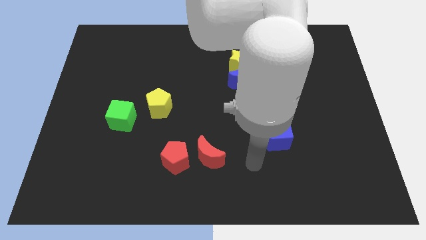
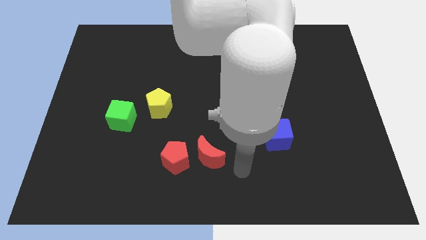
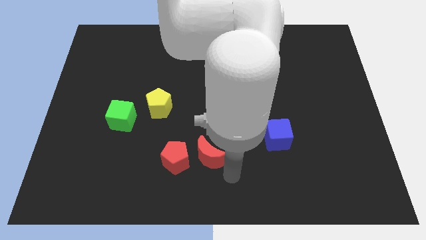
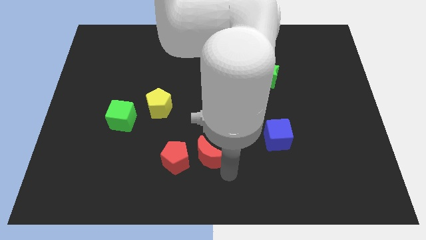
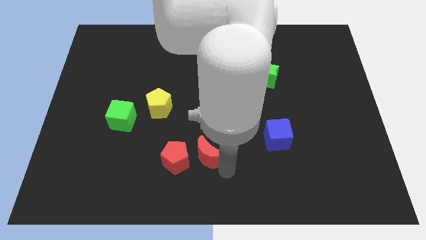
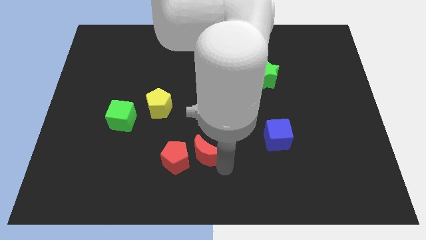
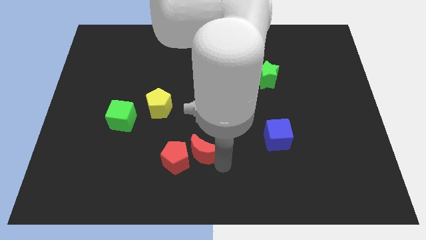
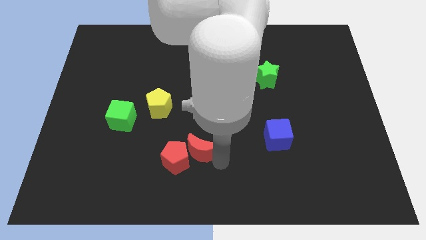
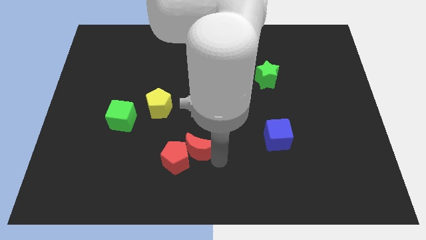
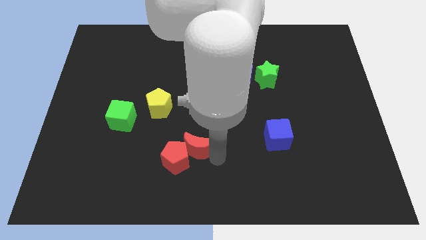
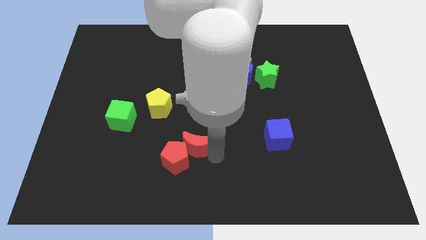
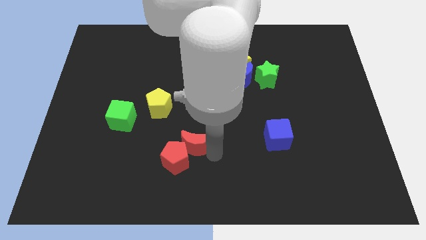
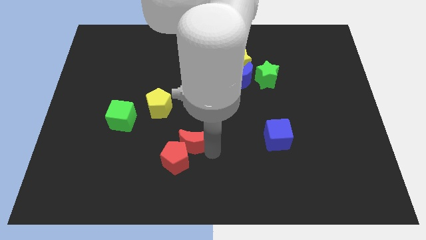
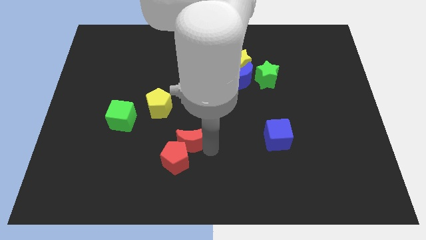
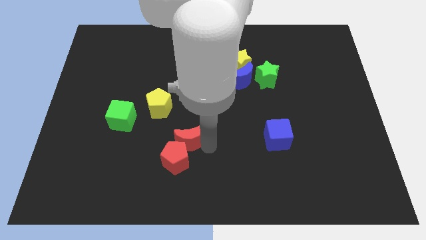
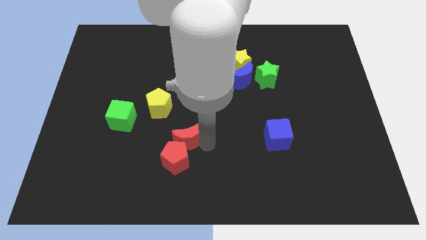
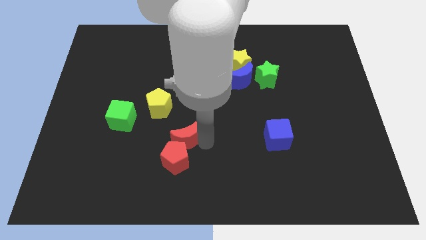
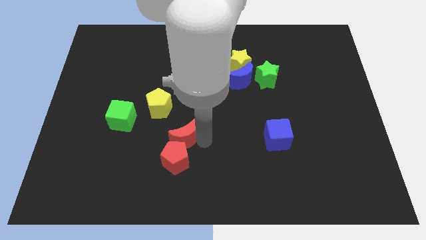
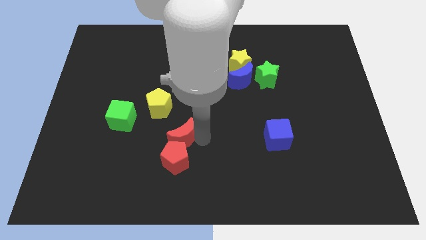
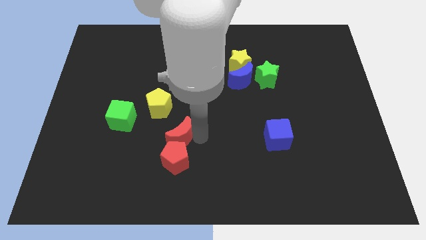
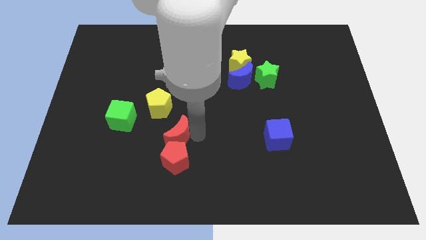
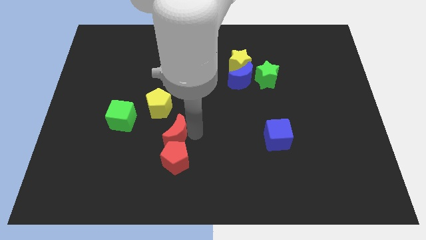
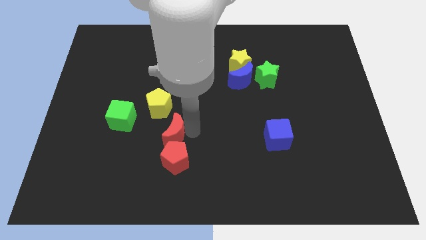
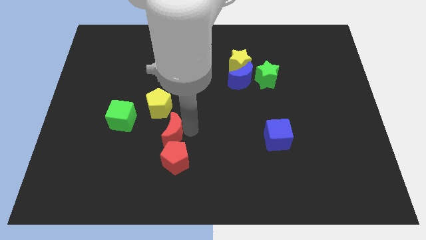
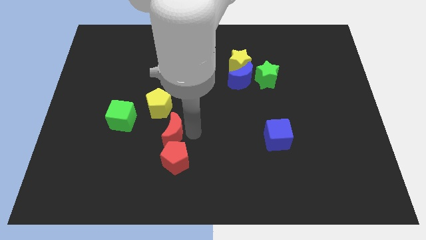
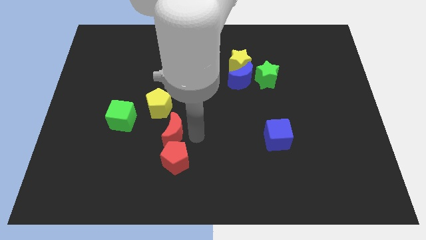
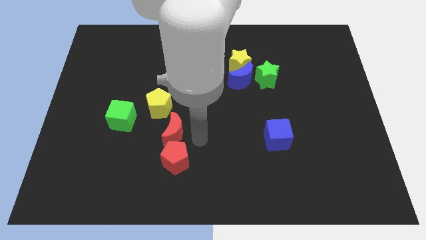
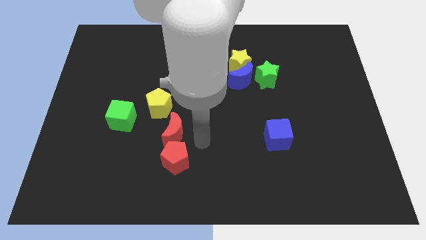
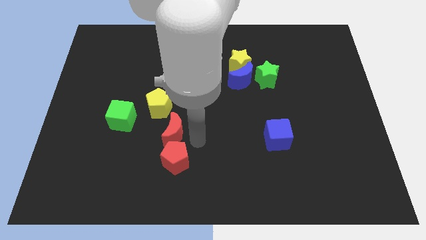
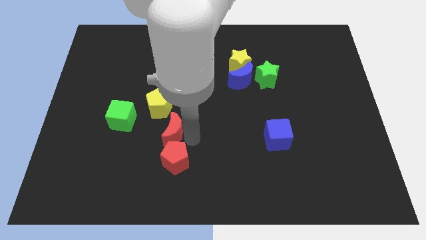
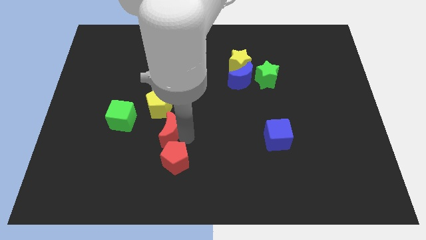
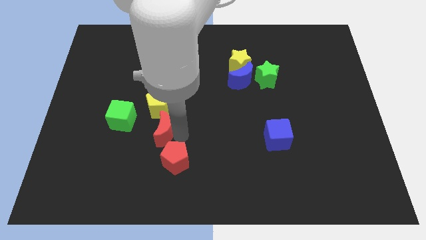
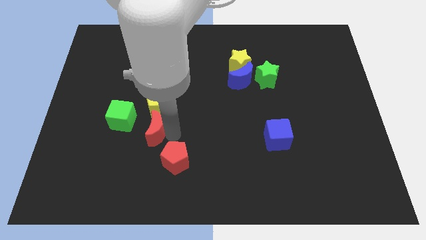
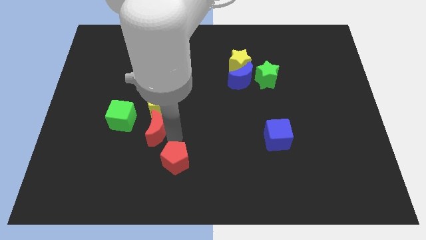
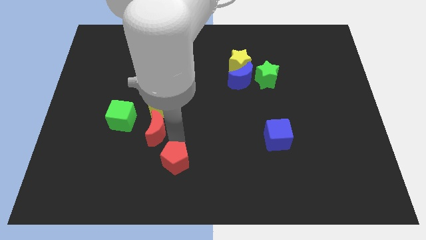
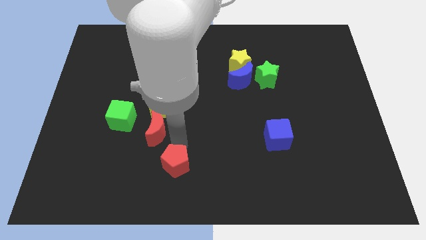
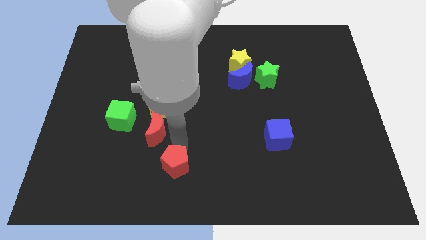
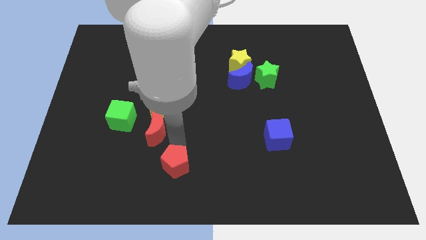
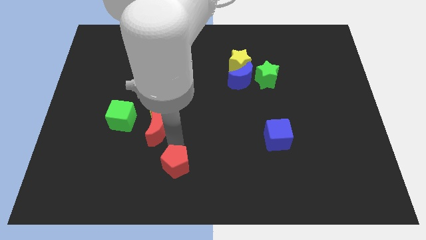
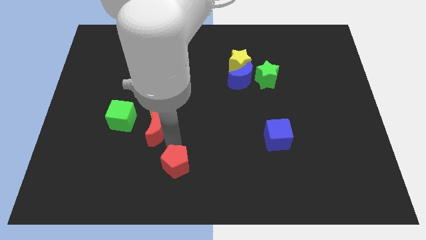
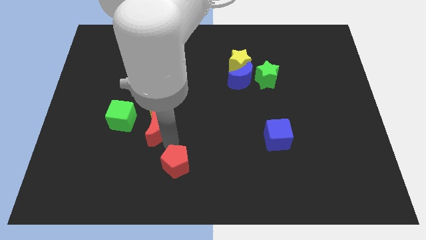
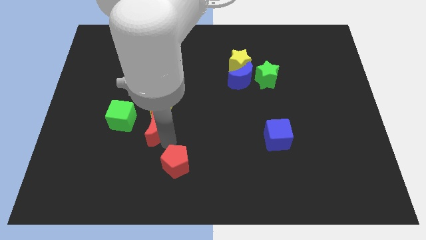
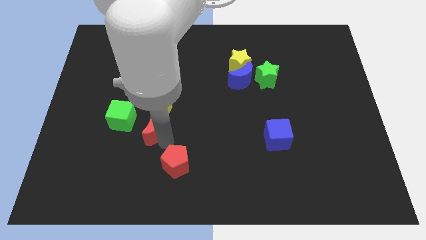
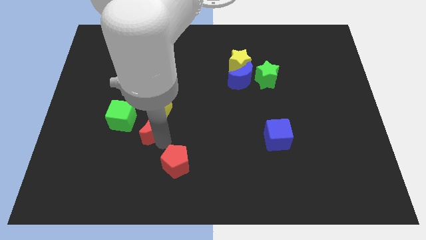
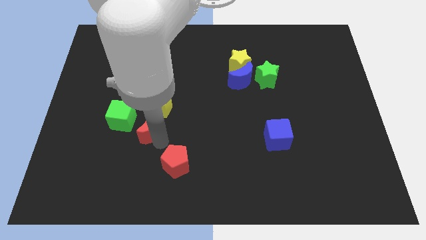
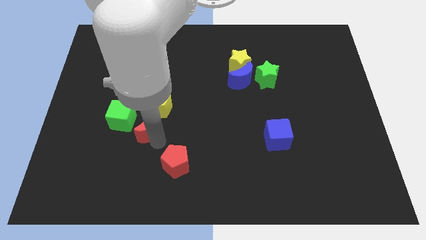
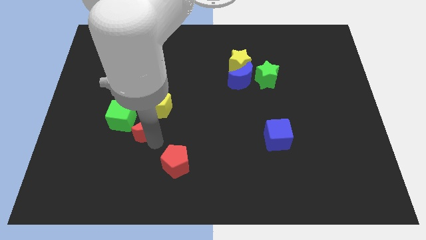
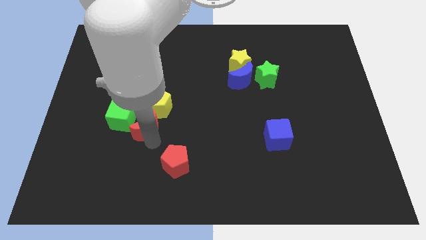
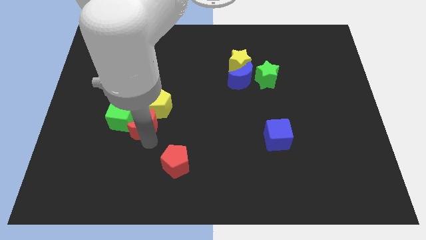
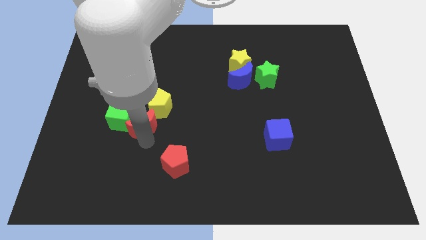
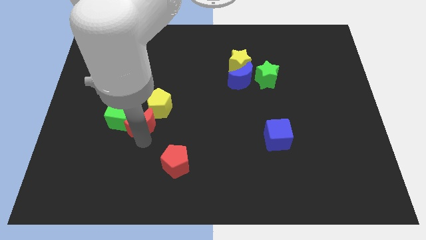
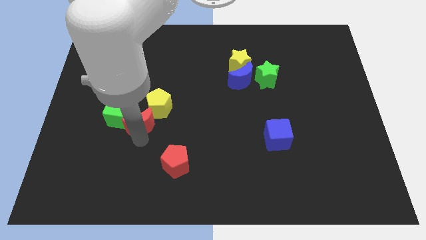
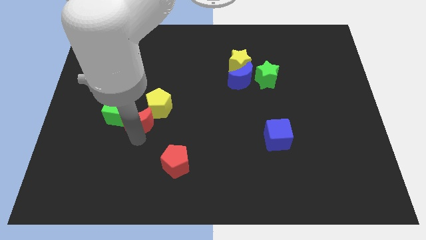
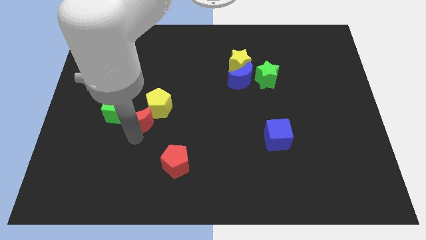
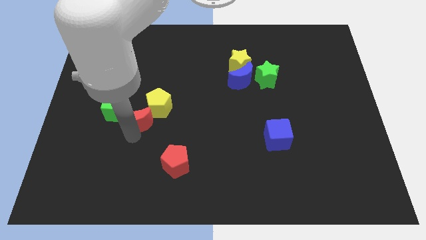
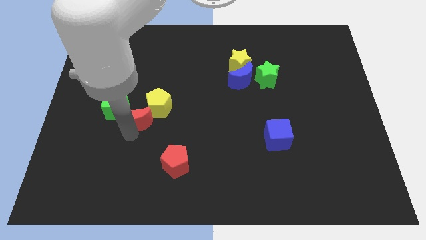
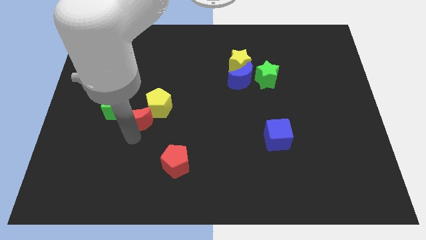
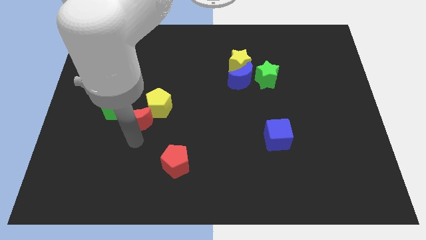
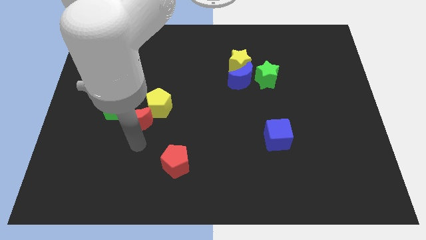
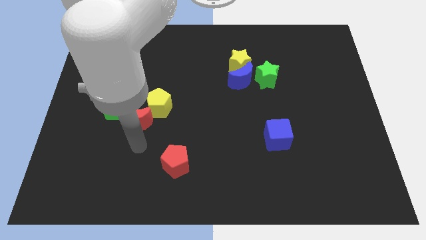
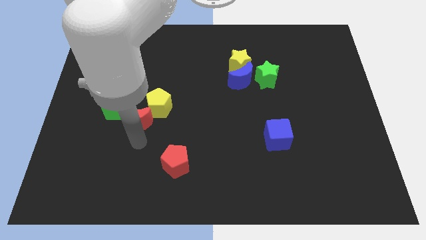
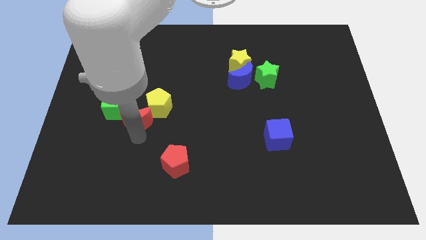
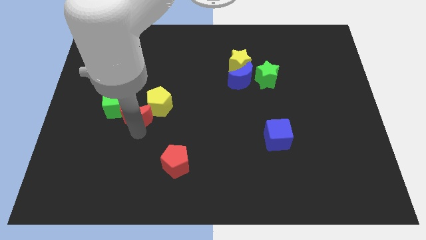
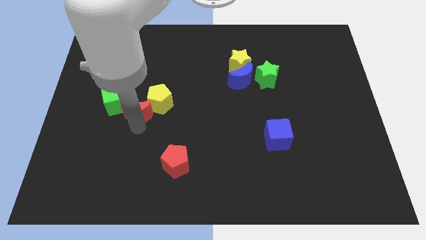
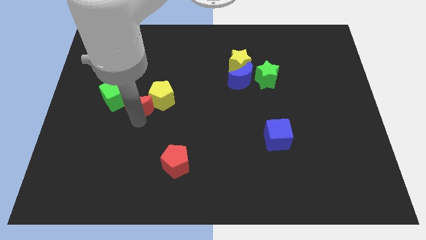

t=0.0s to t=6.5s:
move the red moon up and left diagonally

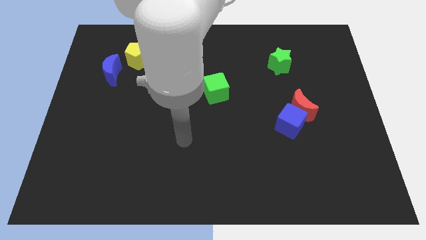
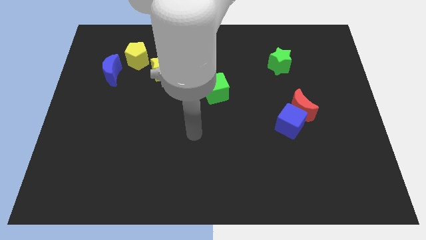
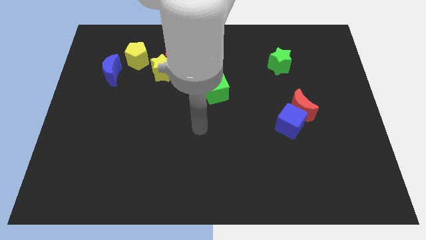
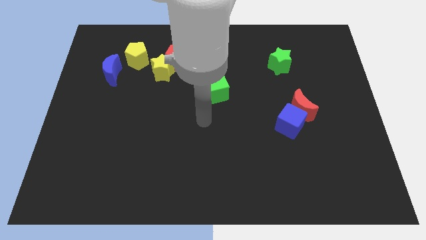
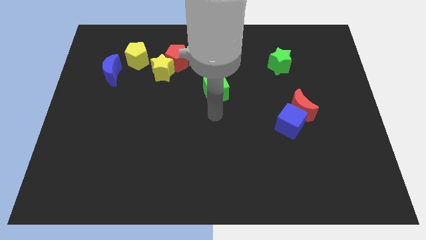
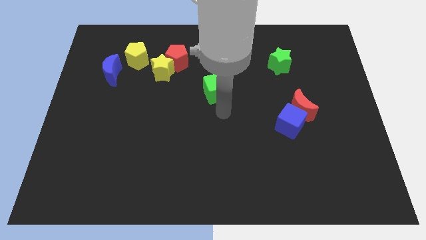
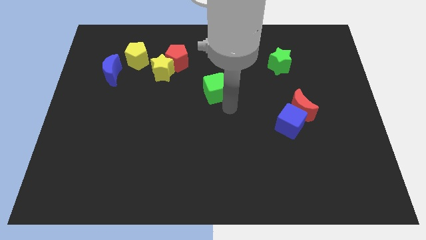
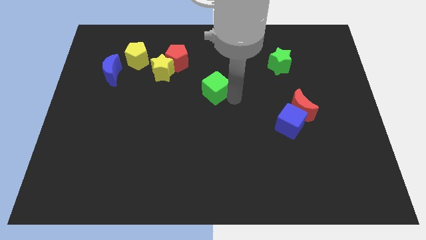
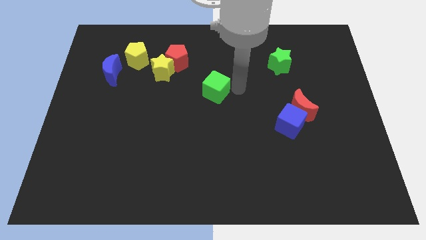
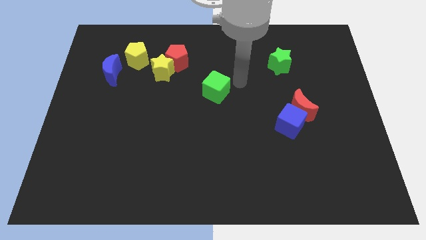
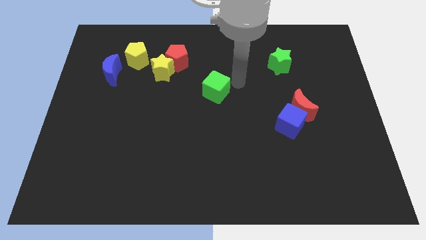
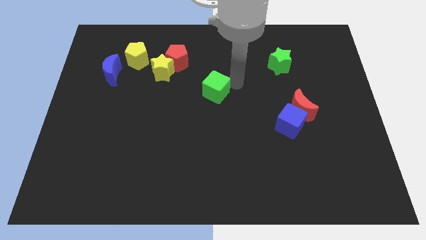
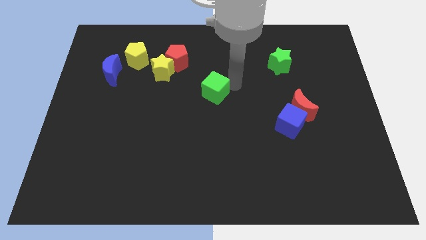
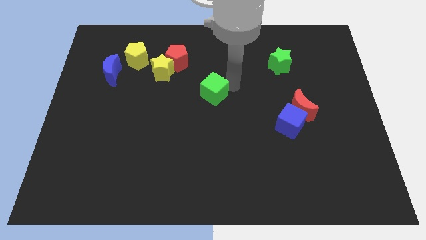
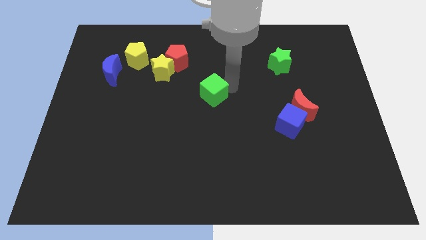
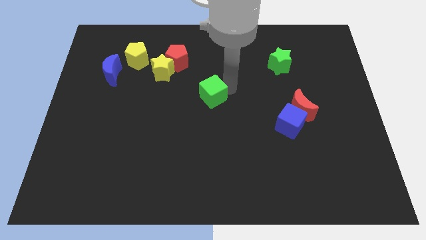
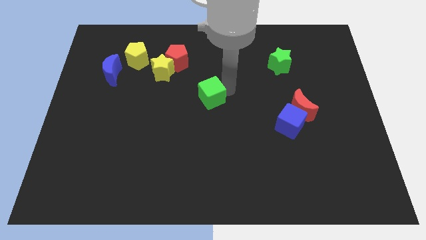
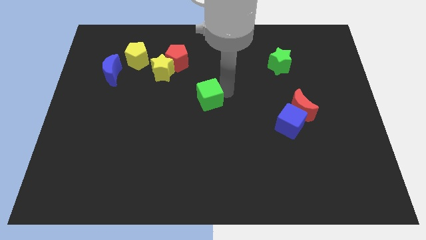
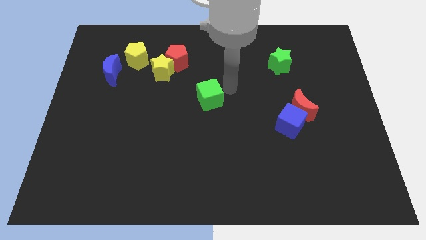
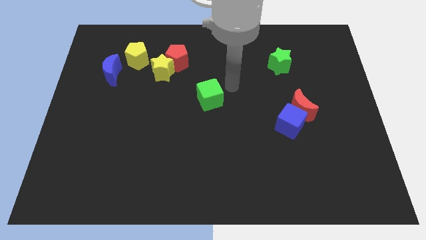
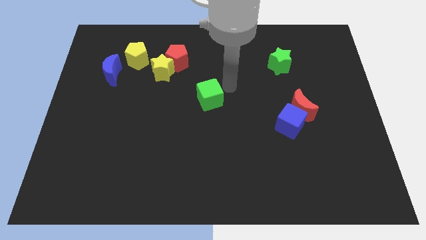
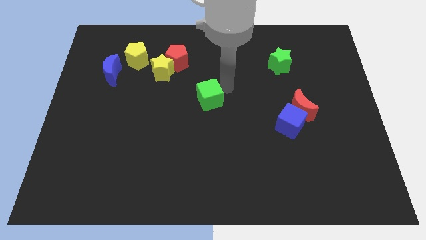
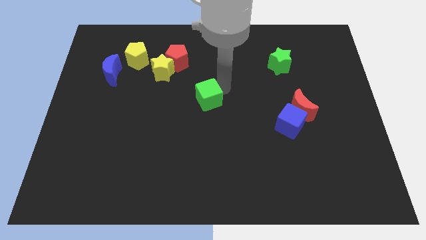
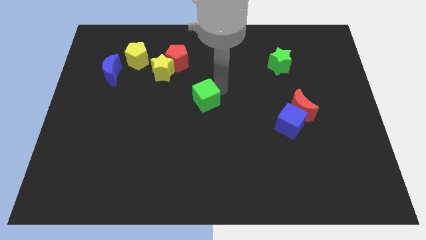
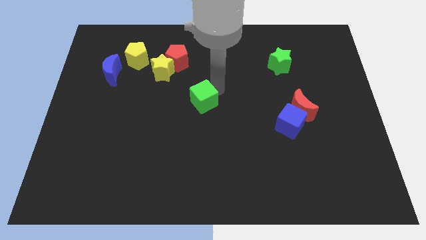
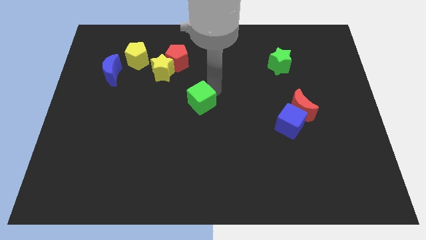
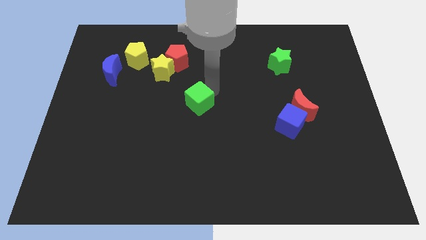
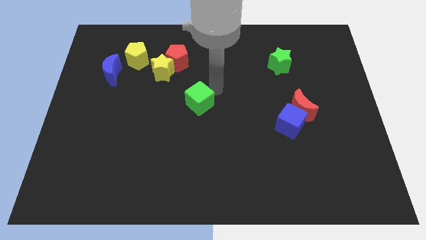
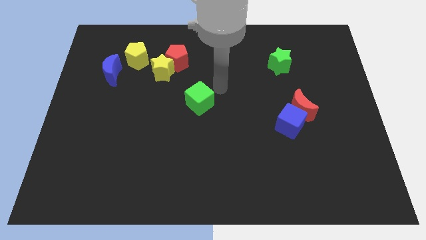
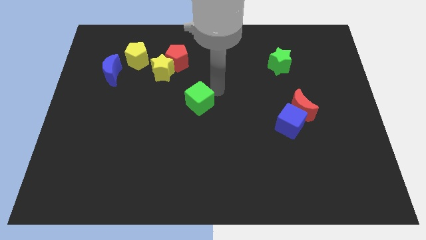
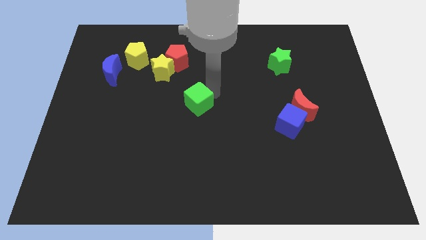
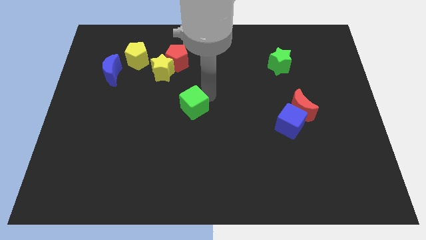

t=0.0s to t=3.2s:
push the green cube a little bit downwards and then left
